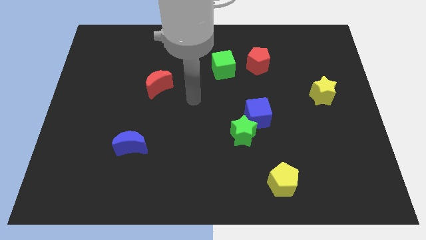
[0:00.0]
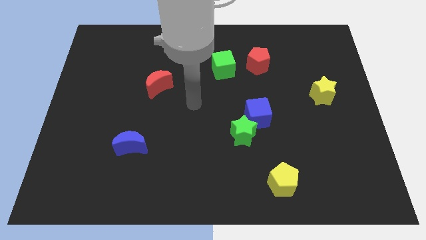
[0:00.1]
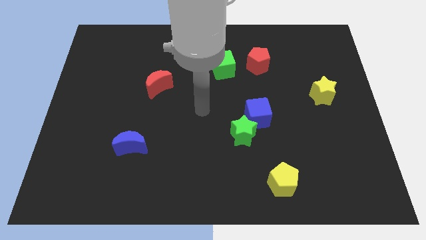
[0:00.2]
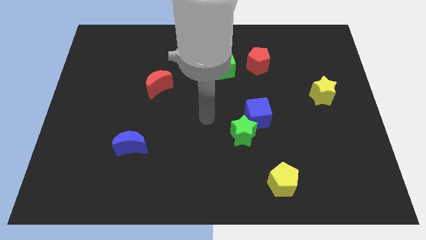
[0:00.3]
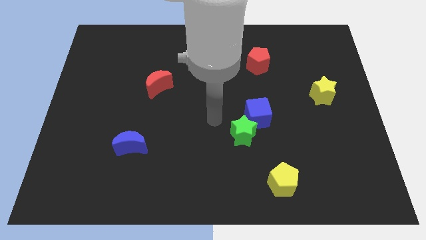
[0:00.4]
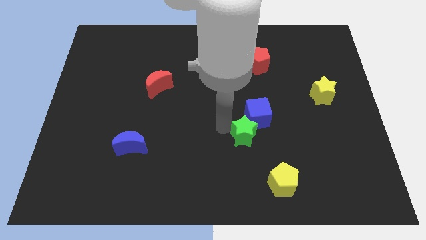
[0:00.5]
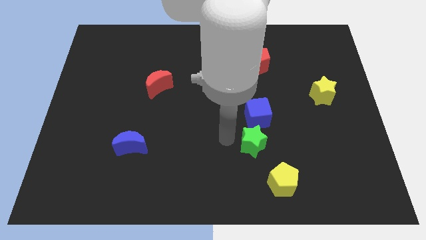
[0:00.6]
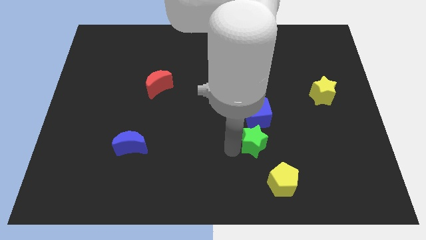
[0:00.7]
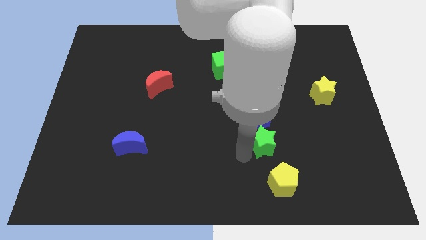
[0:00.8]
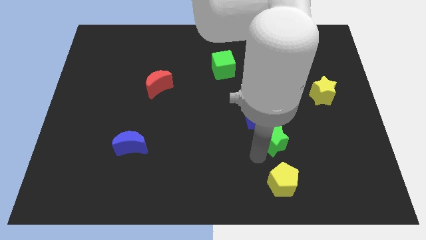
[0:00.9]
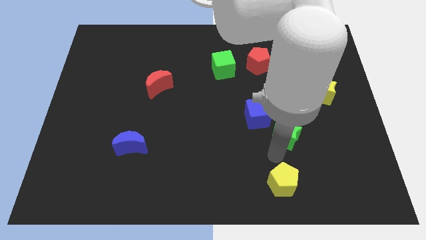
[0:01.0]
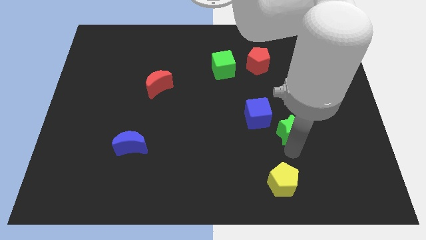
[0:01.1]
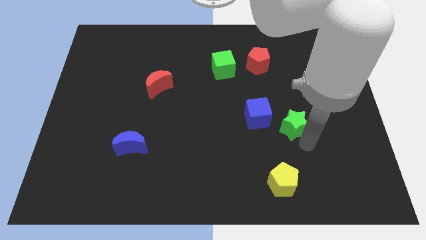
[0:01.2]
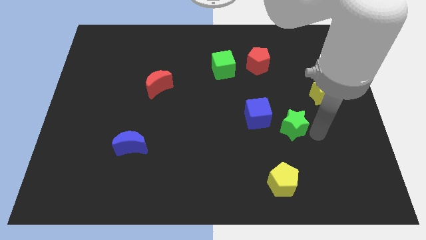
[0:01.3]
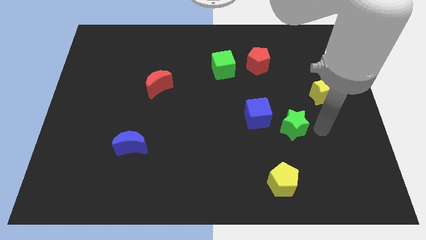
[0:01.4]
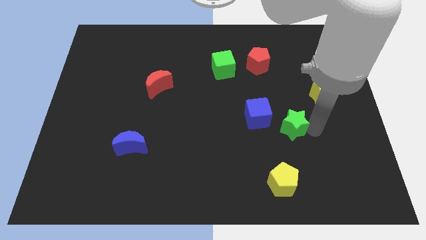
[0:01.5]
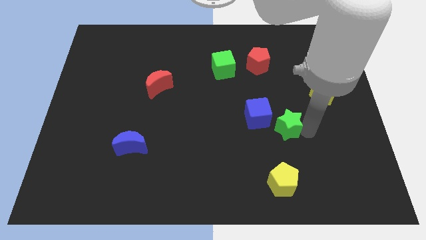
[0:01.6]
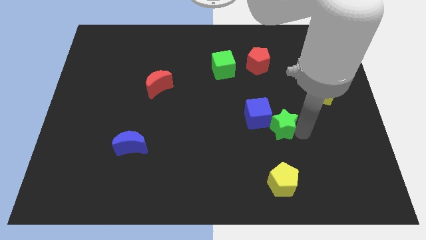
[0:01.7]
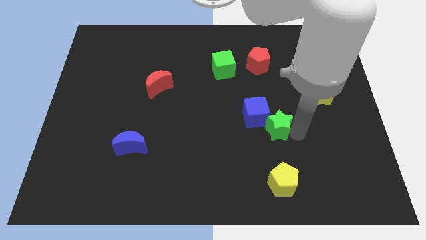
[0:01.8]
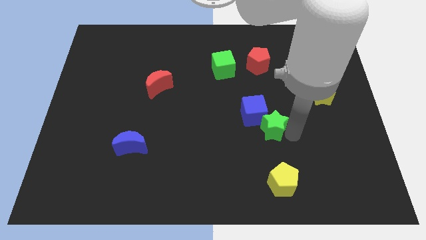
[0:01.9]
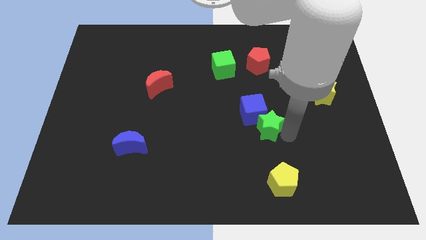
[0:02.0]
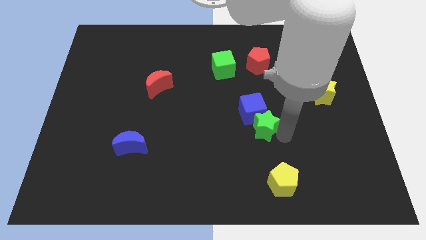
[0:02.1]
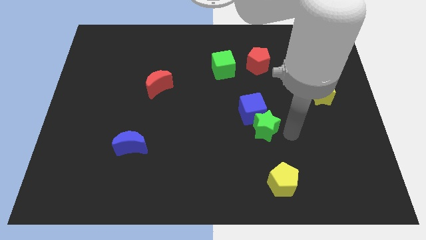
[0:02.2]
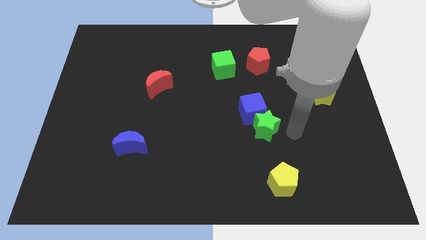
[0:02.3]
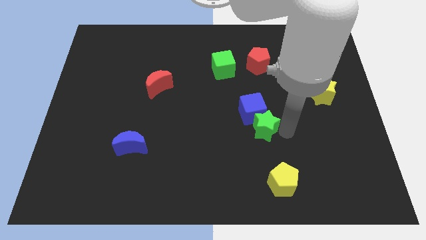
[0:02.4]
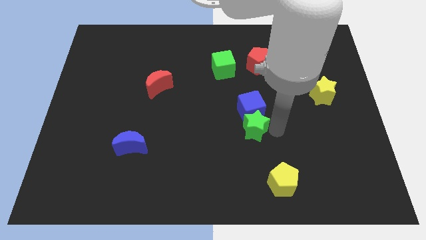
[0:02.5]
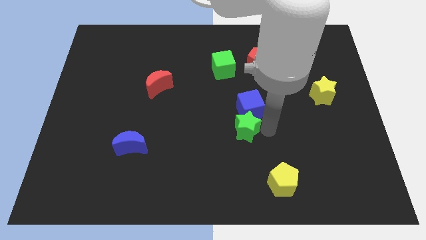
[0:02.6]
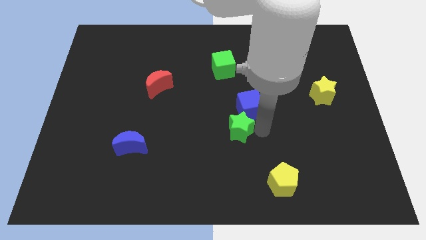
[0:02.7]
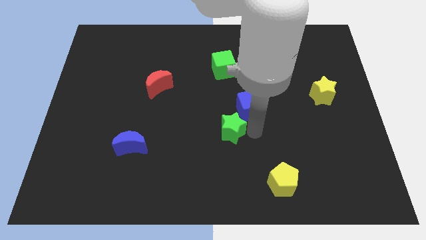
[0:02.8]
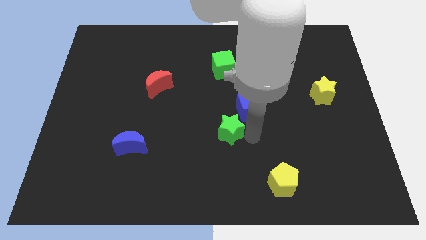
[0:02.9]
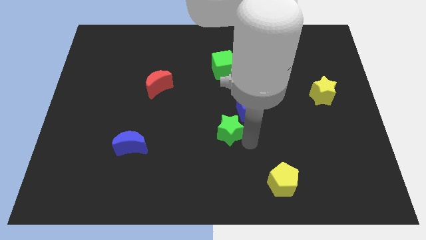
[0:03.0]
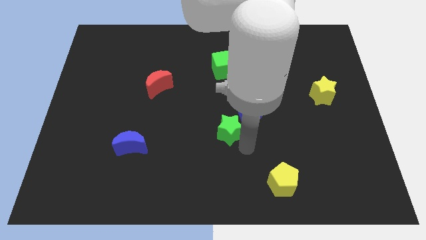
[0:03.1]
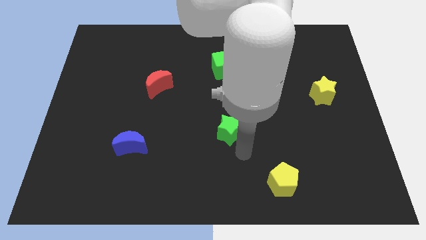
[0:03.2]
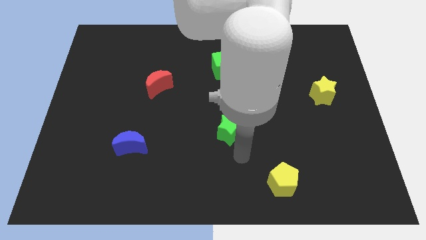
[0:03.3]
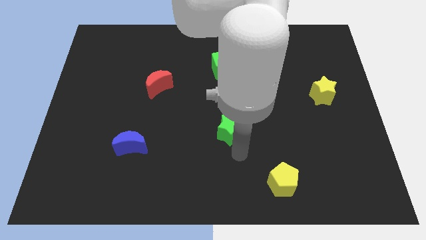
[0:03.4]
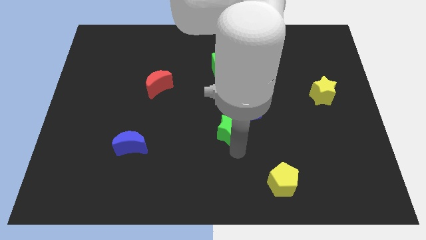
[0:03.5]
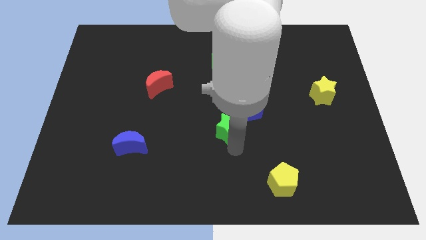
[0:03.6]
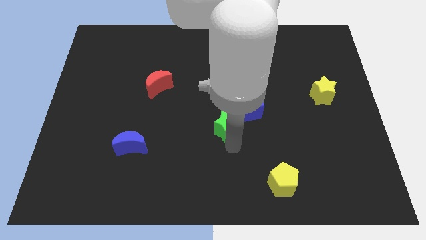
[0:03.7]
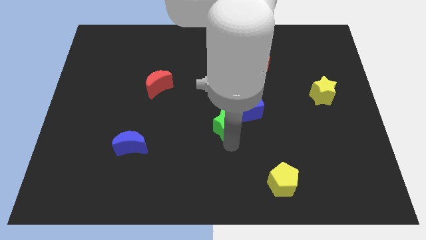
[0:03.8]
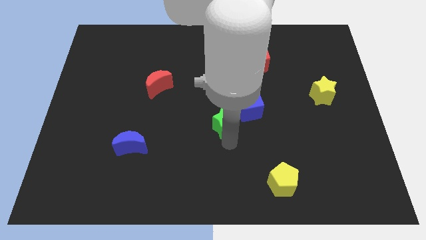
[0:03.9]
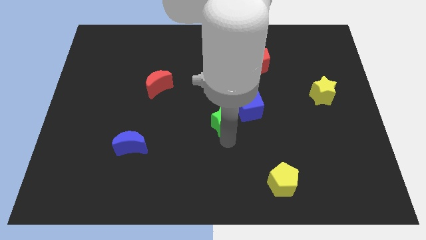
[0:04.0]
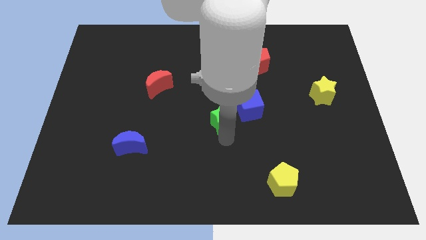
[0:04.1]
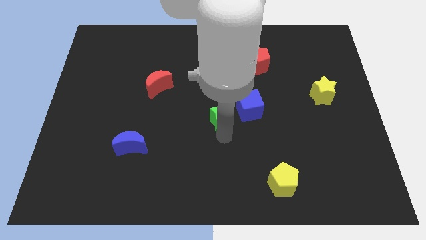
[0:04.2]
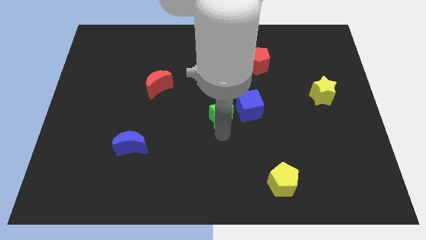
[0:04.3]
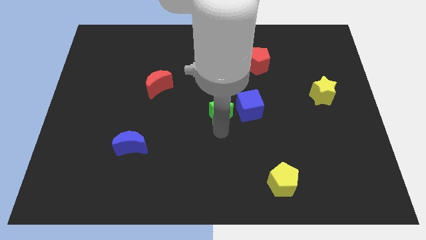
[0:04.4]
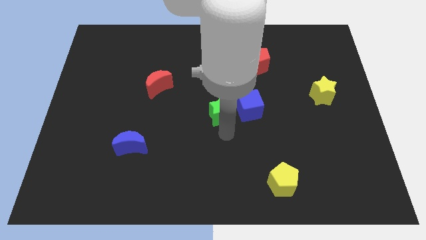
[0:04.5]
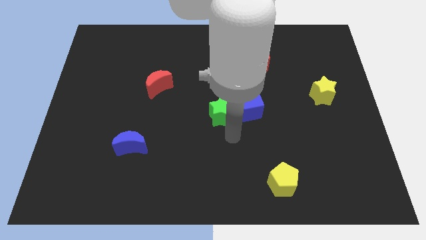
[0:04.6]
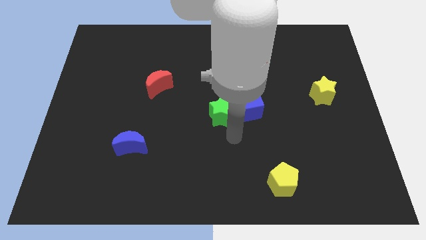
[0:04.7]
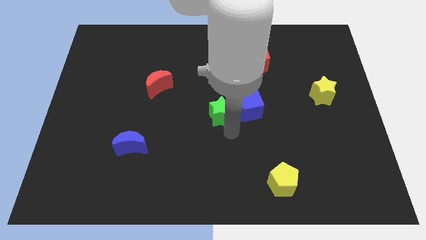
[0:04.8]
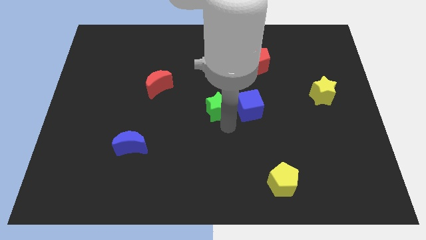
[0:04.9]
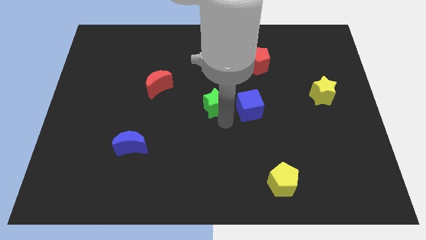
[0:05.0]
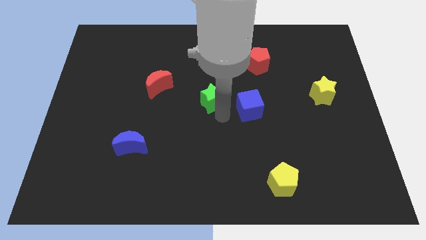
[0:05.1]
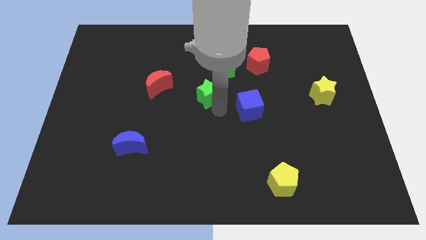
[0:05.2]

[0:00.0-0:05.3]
move the green star to the right side of the red moon

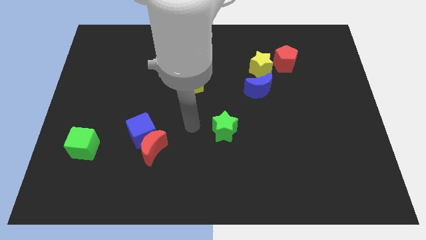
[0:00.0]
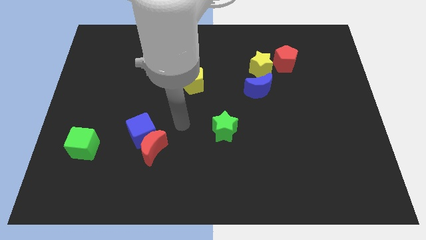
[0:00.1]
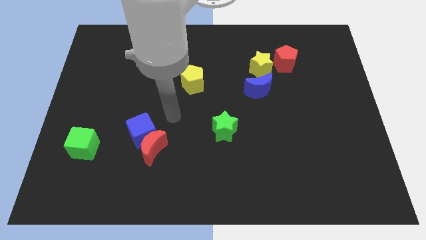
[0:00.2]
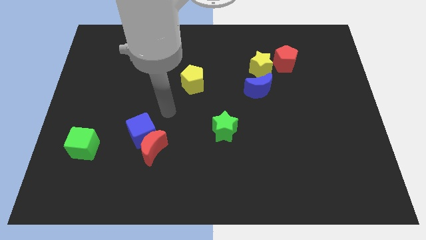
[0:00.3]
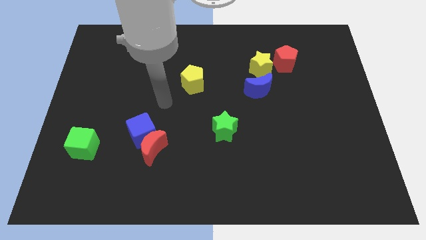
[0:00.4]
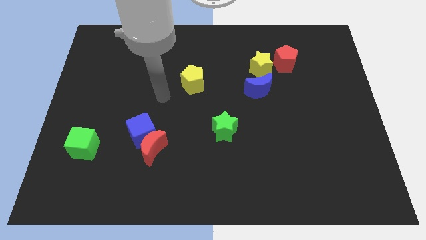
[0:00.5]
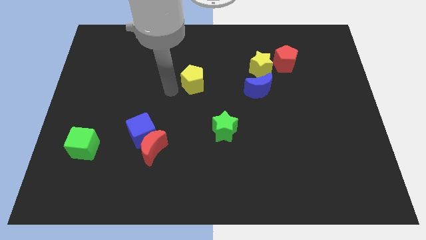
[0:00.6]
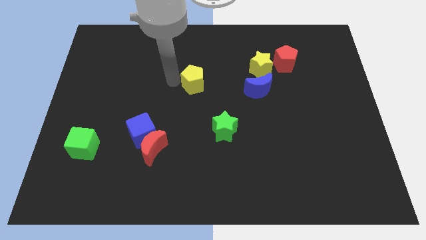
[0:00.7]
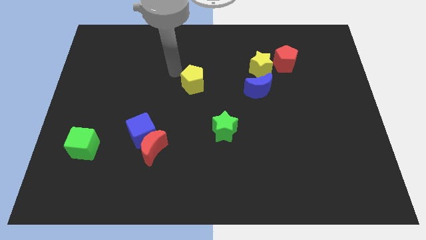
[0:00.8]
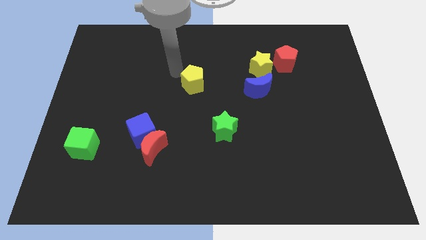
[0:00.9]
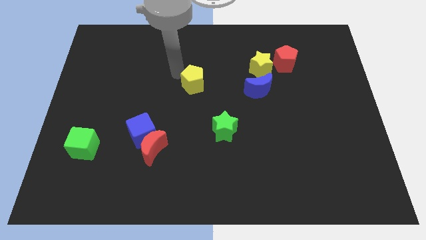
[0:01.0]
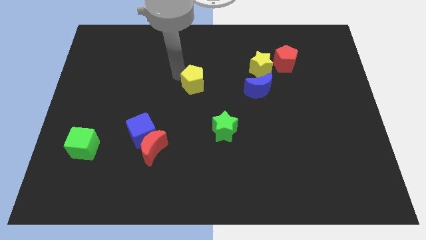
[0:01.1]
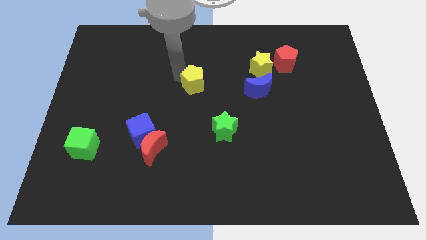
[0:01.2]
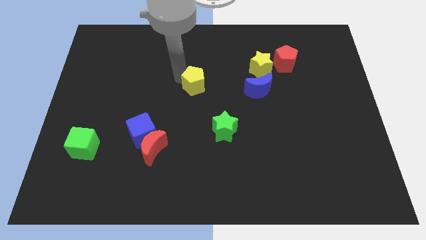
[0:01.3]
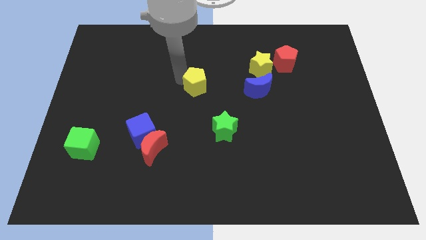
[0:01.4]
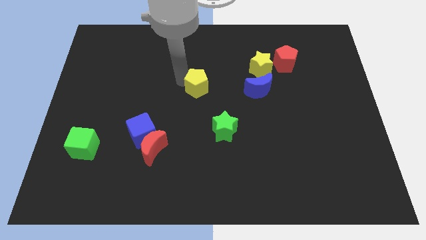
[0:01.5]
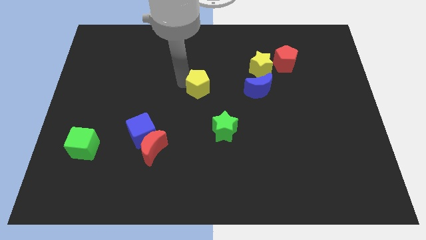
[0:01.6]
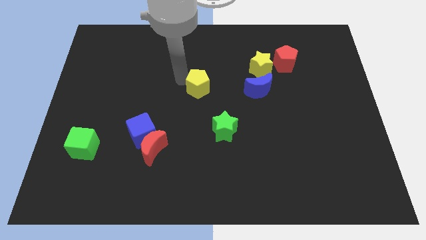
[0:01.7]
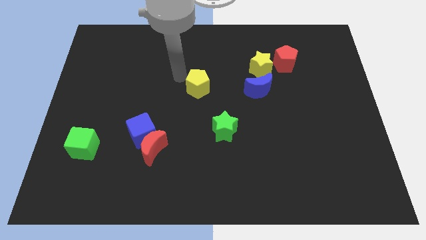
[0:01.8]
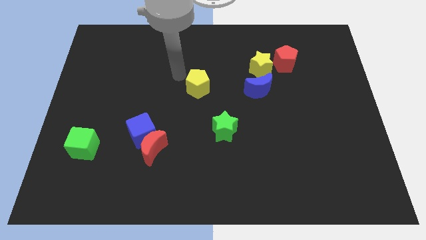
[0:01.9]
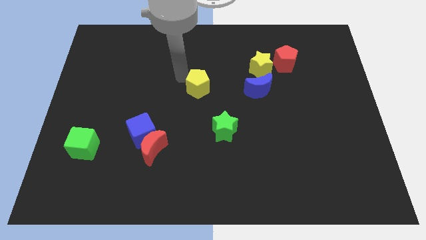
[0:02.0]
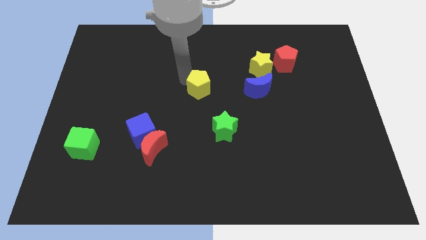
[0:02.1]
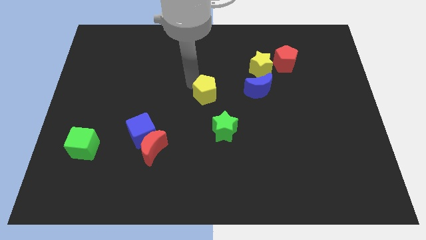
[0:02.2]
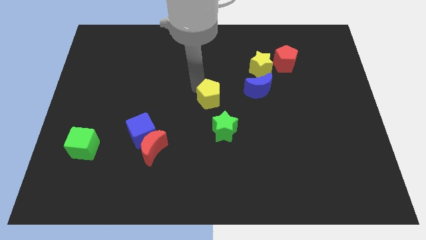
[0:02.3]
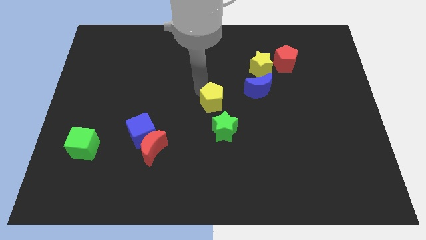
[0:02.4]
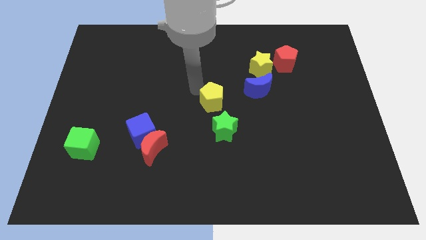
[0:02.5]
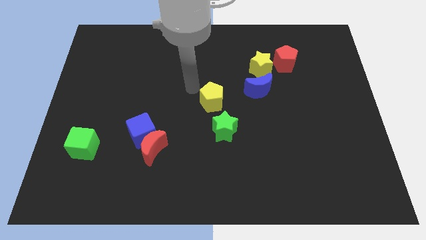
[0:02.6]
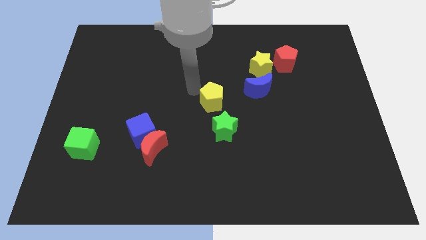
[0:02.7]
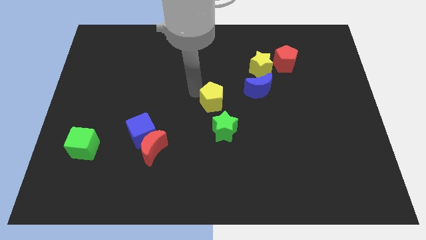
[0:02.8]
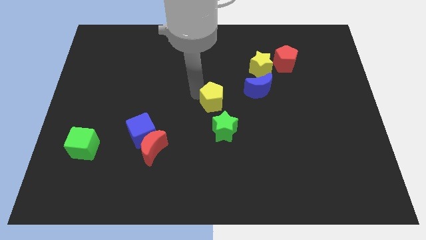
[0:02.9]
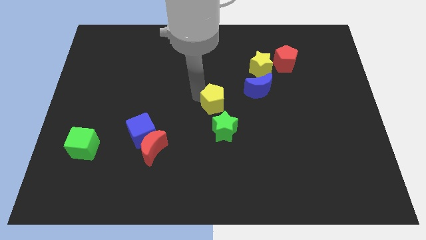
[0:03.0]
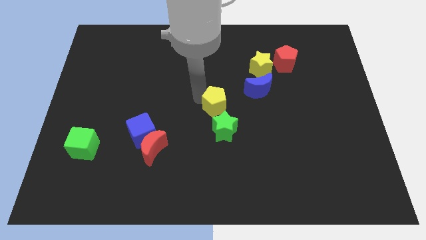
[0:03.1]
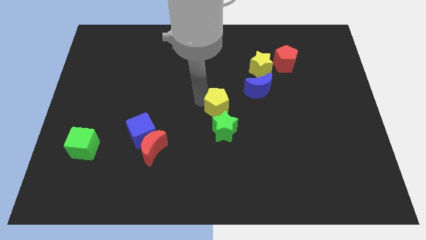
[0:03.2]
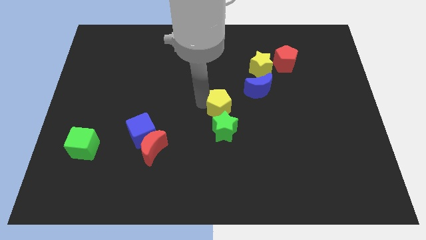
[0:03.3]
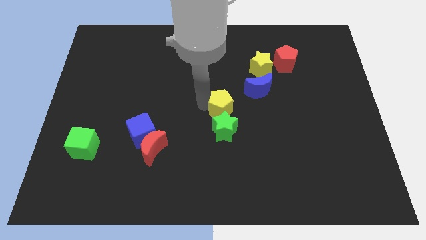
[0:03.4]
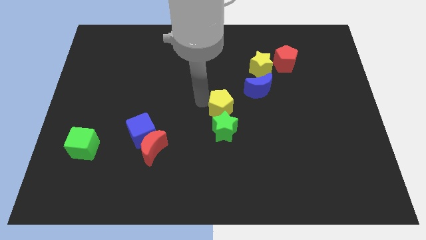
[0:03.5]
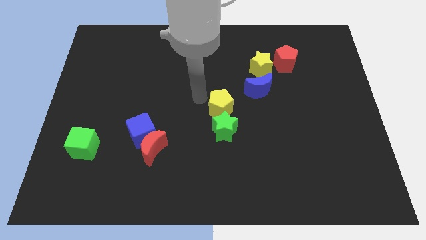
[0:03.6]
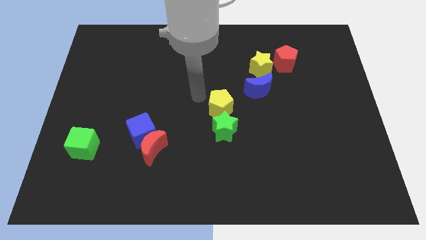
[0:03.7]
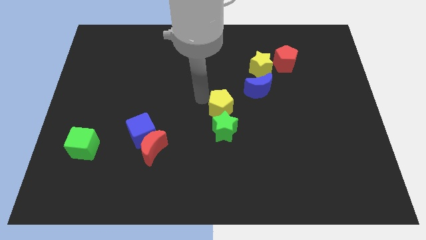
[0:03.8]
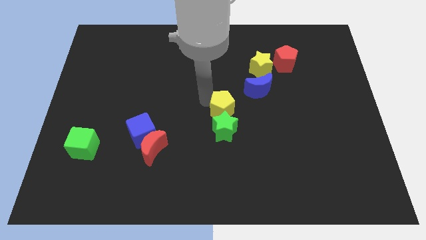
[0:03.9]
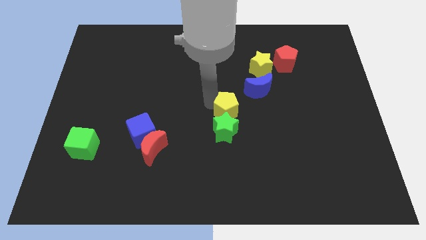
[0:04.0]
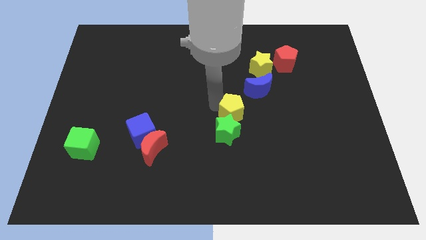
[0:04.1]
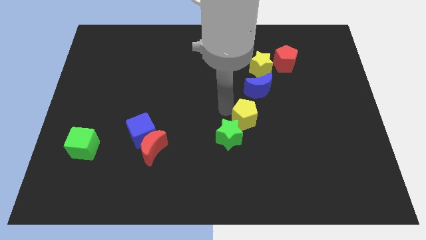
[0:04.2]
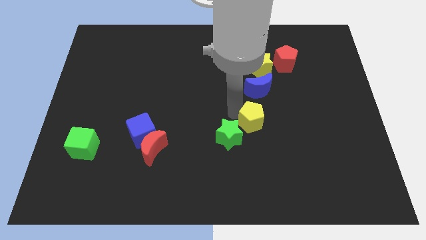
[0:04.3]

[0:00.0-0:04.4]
slide the yellow pentagon to the right of the green star
